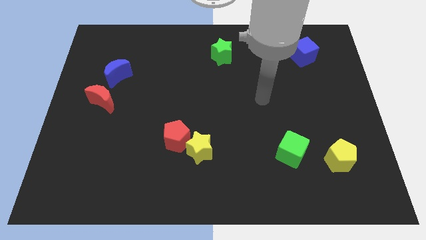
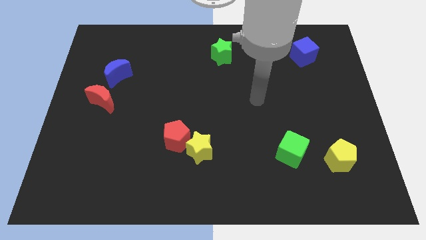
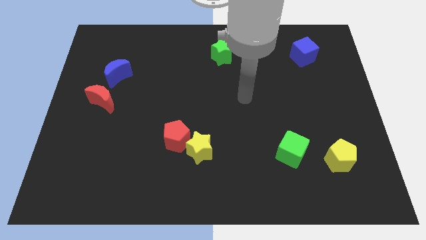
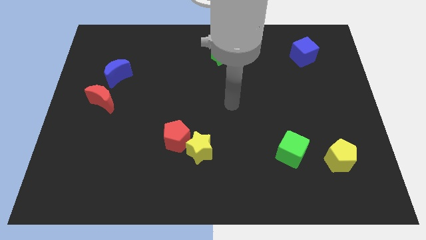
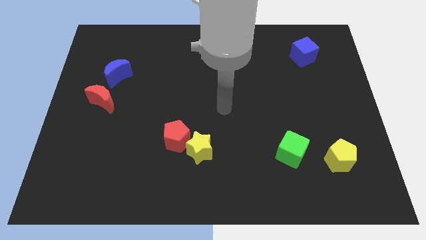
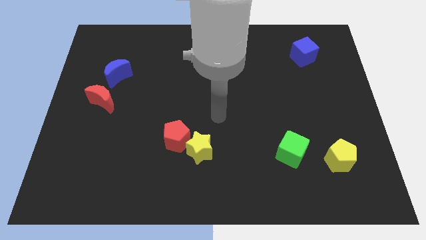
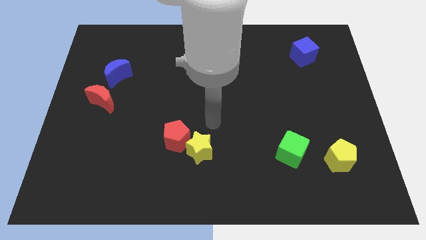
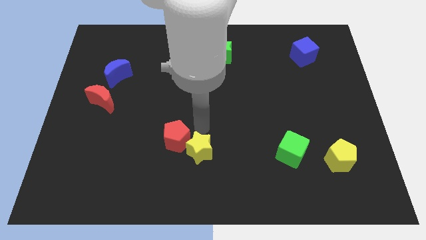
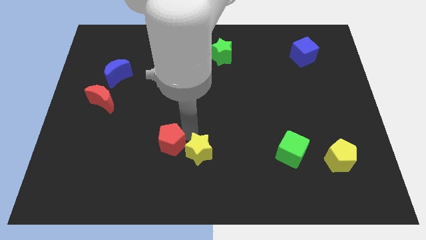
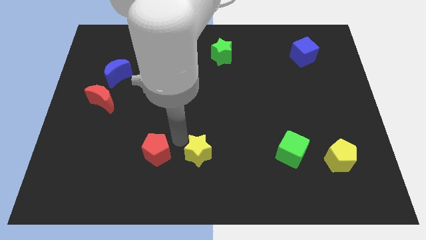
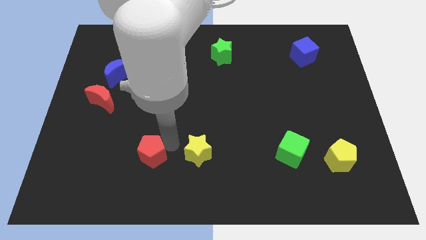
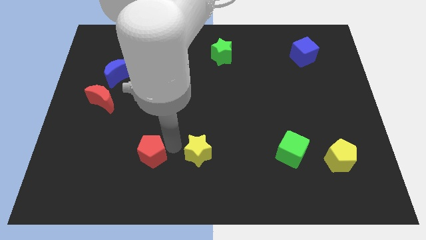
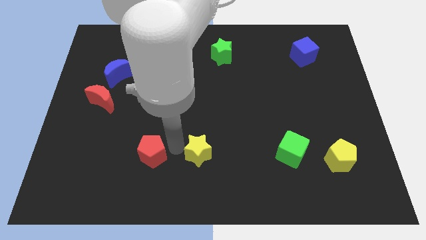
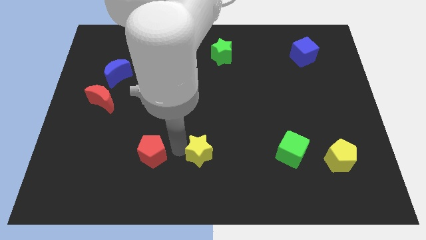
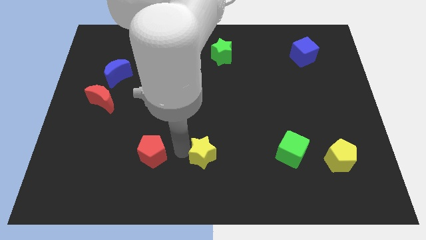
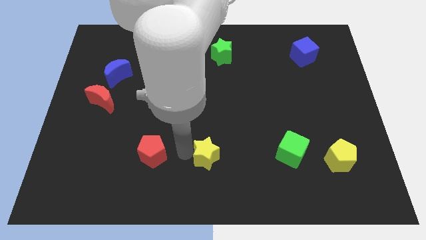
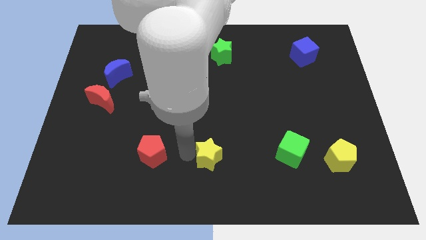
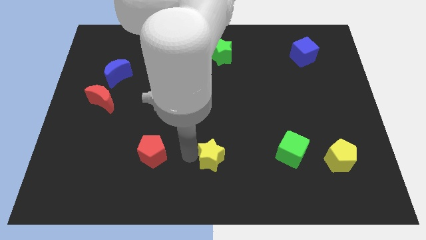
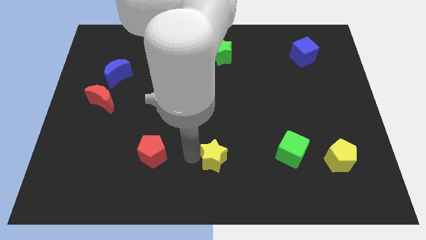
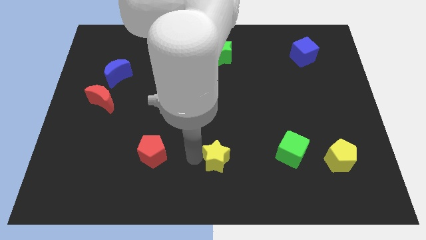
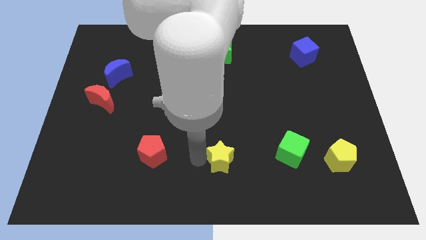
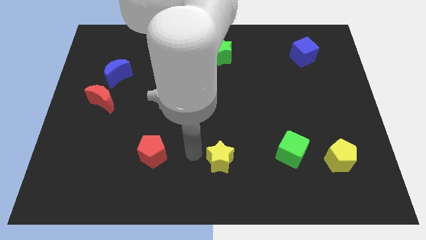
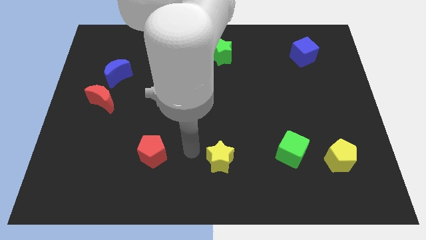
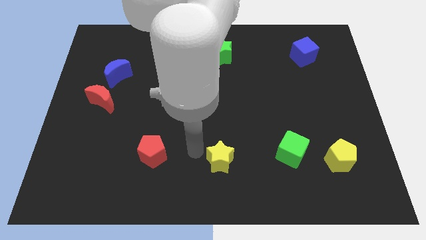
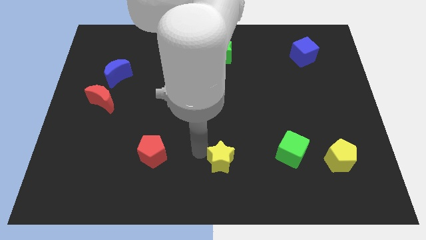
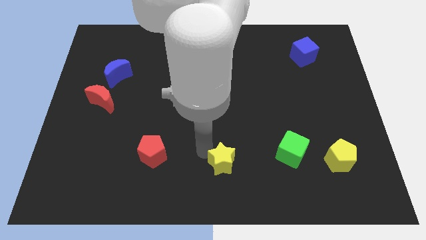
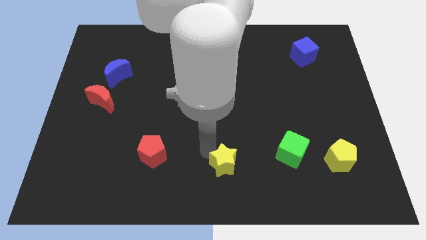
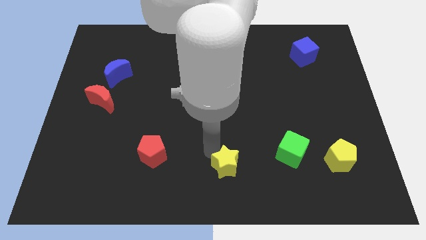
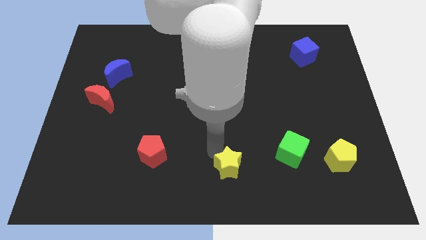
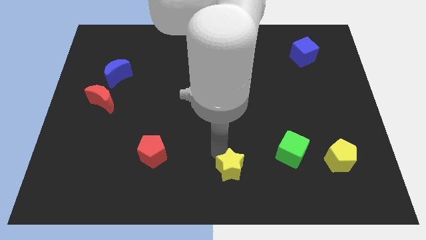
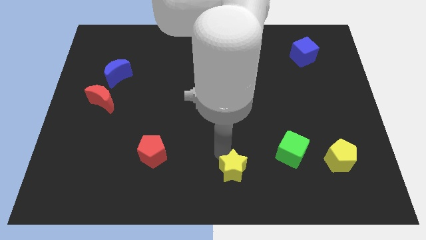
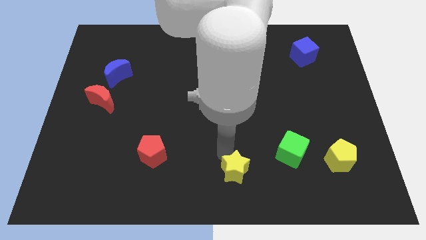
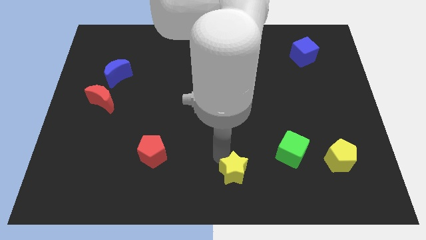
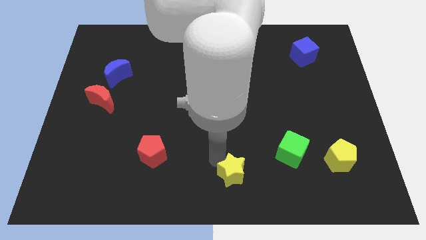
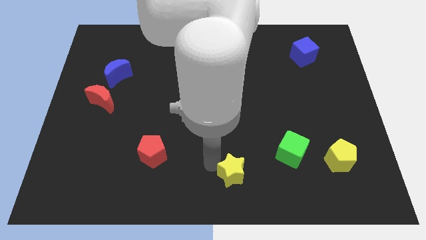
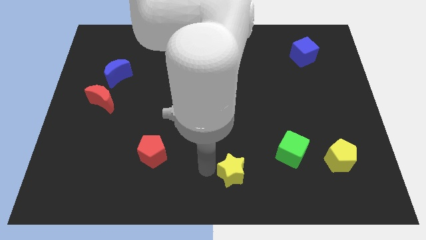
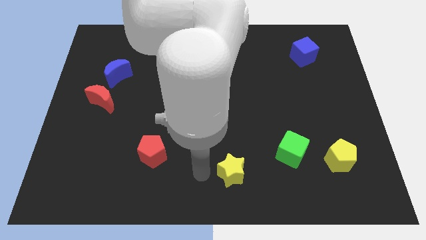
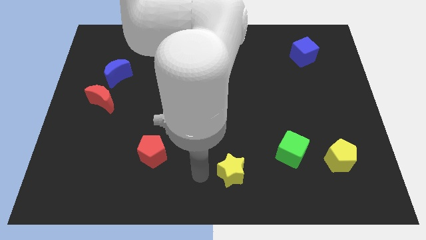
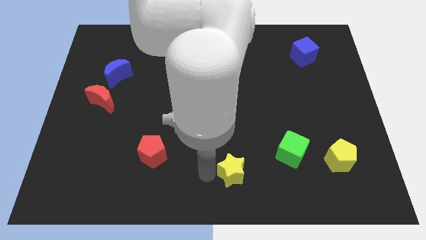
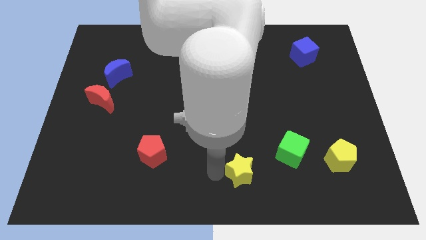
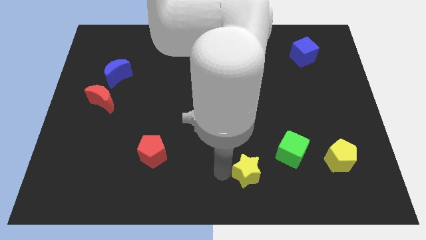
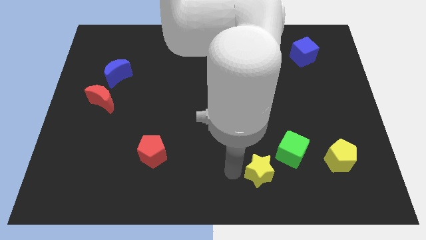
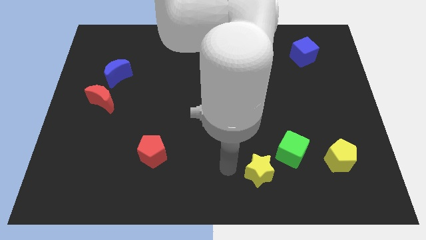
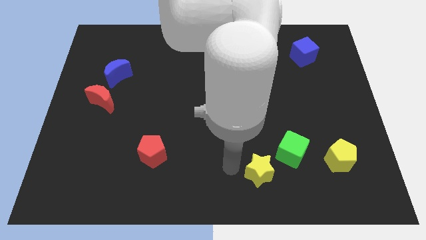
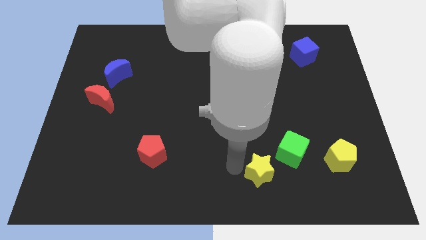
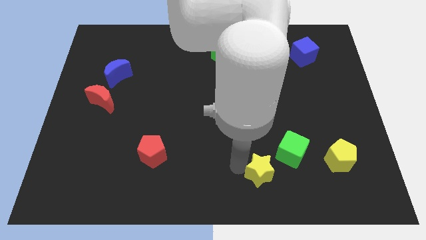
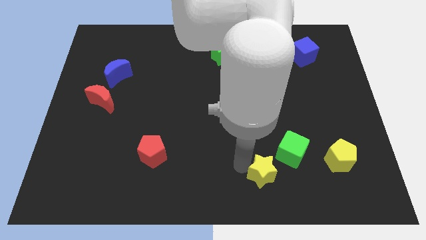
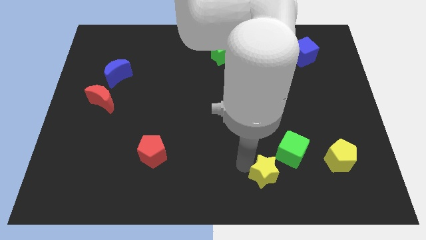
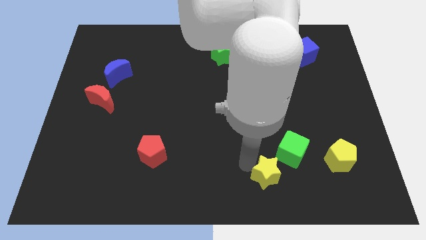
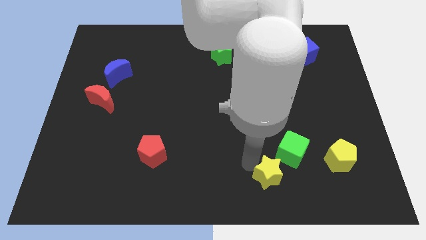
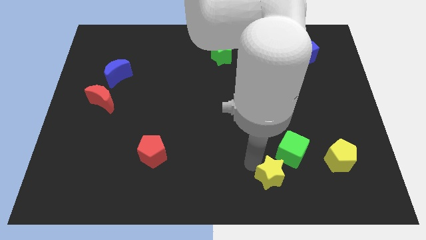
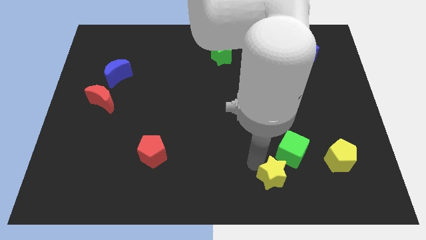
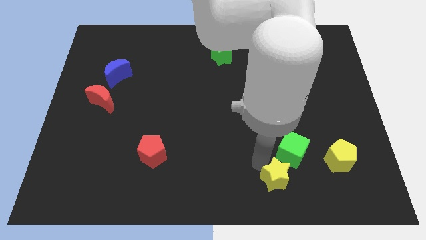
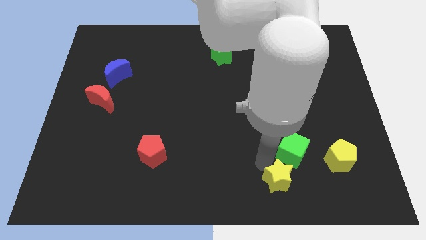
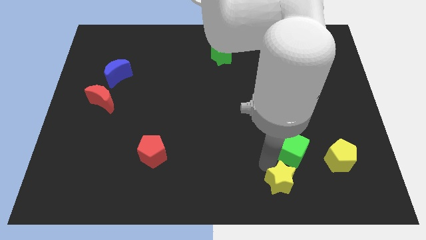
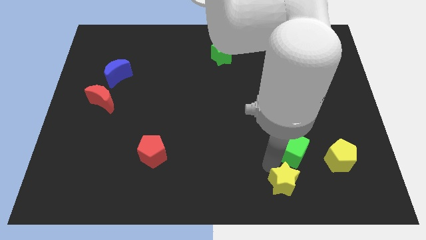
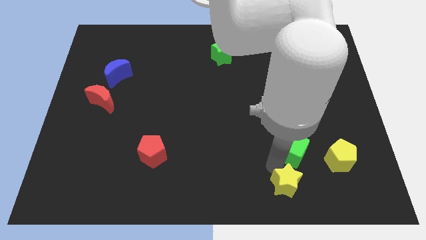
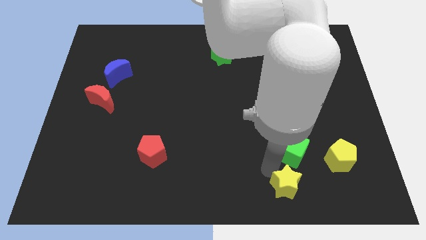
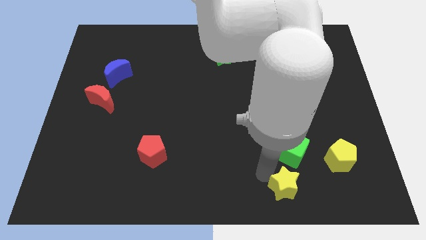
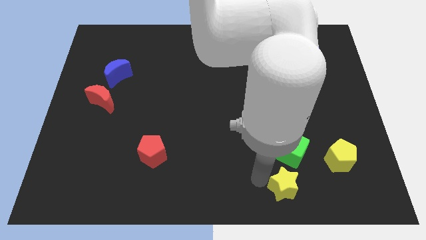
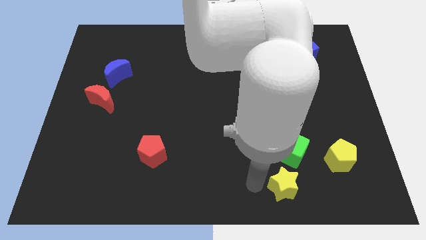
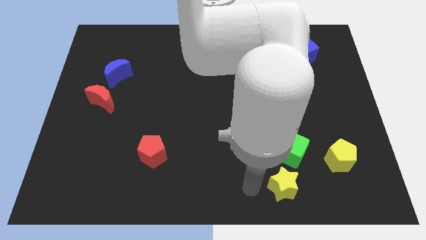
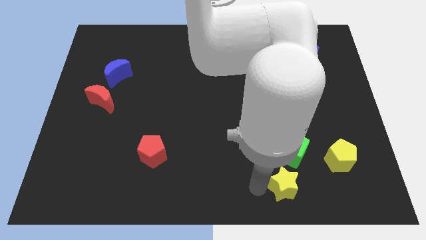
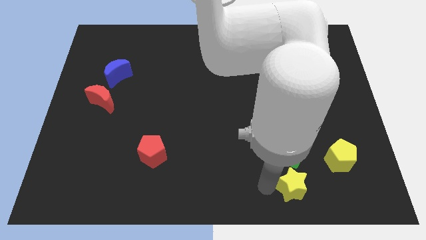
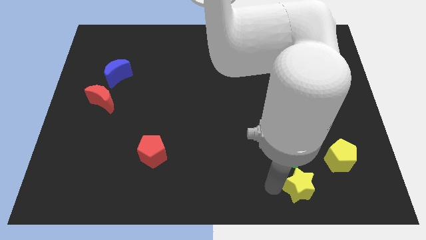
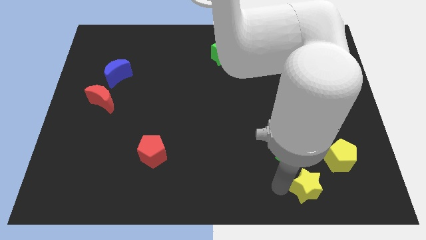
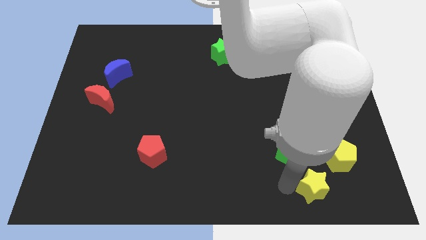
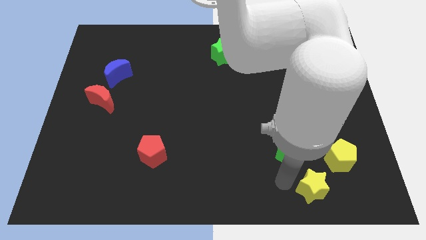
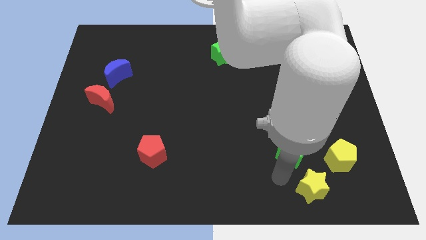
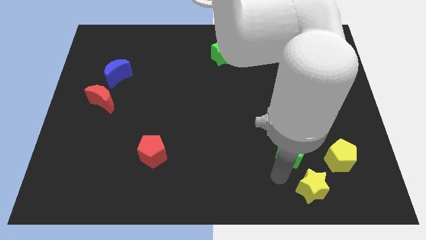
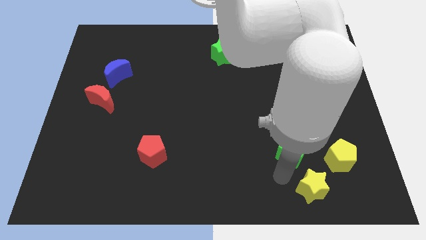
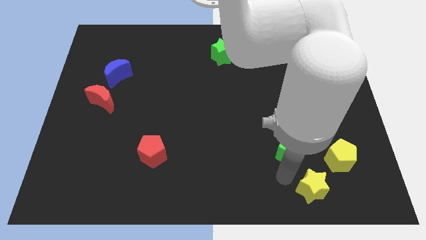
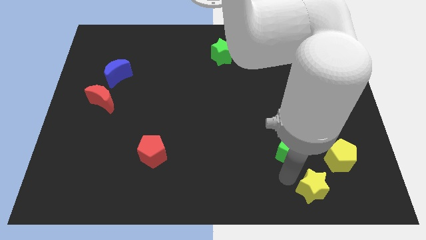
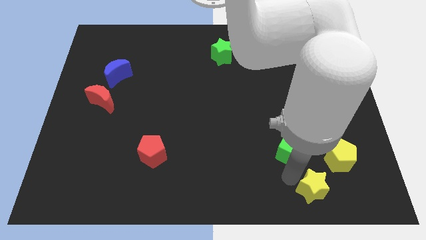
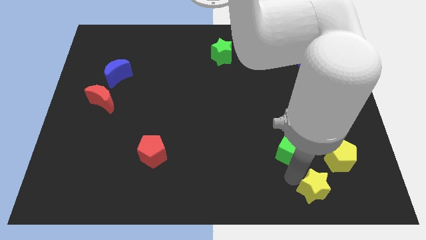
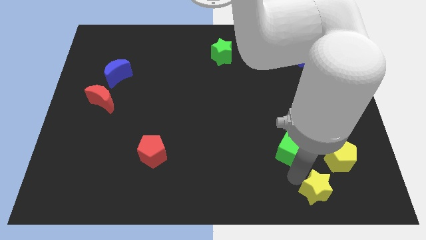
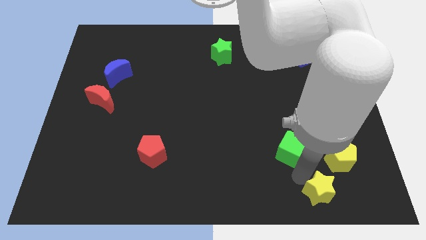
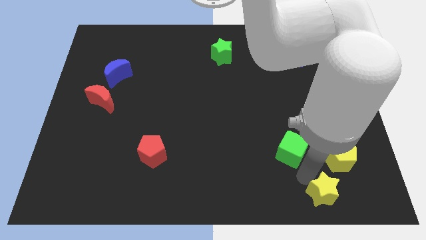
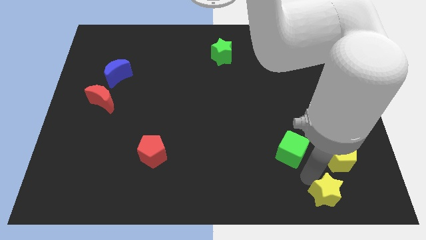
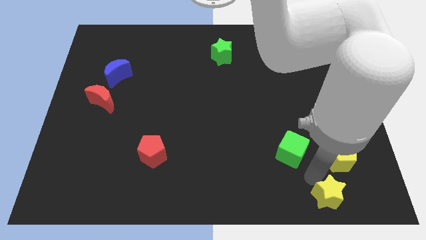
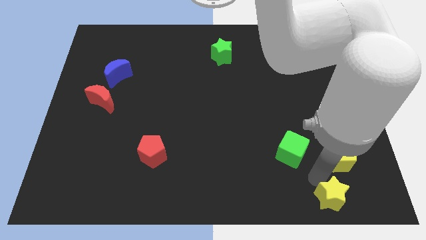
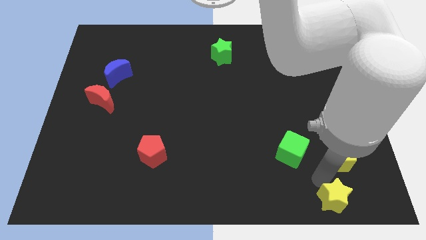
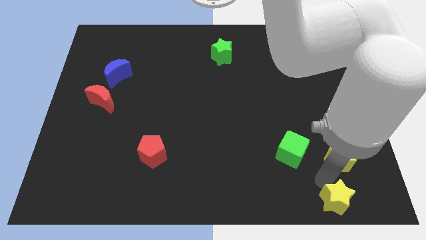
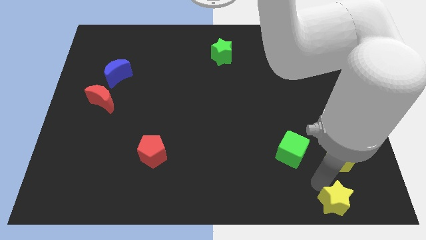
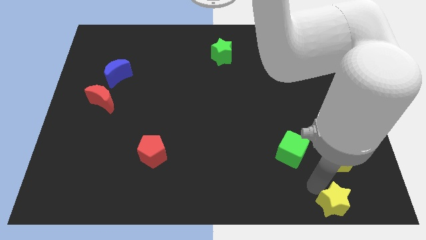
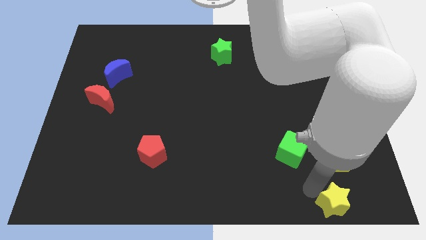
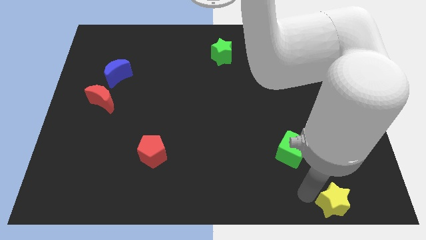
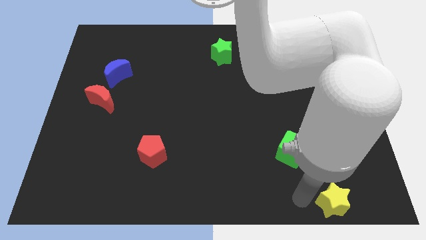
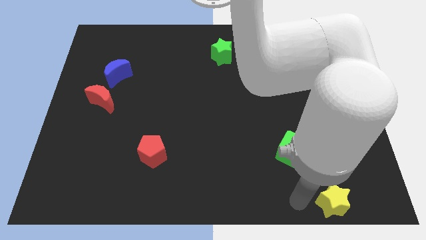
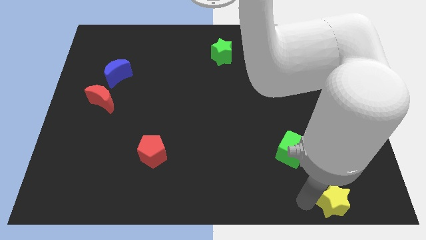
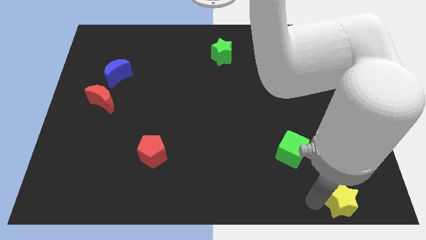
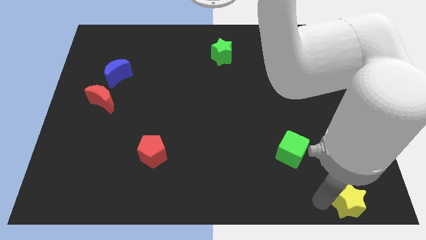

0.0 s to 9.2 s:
put the yellow star to the lower right corner
